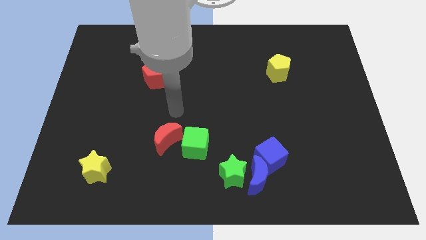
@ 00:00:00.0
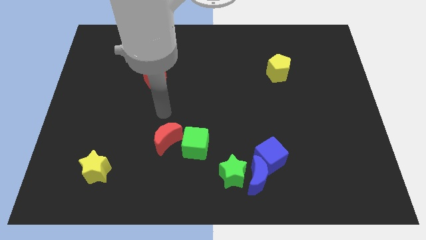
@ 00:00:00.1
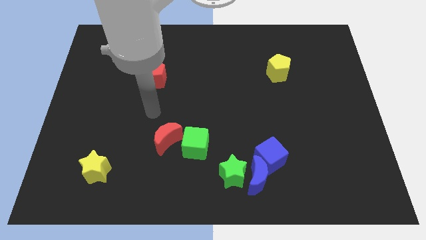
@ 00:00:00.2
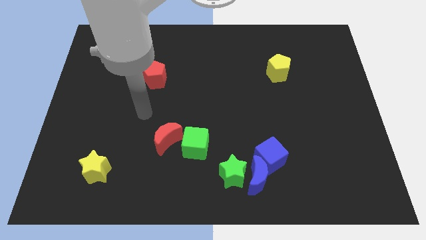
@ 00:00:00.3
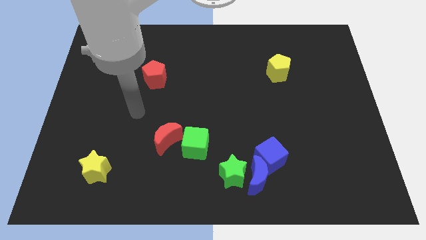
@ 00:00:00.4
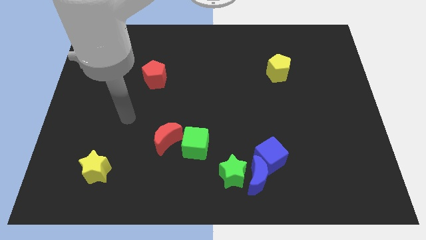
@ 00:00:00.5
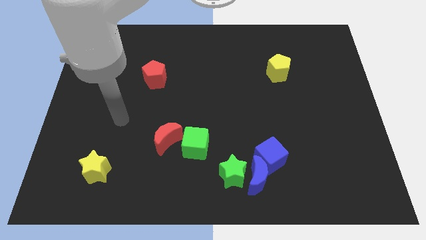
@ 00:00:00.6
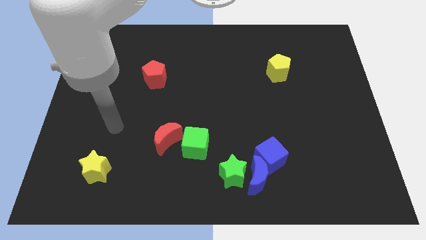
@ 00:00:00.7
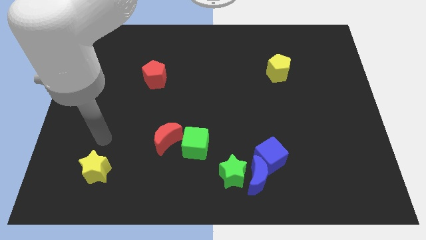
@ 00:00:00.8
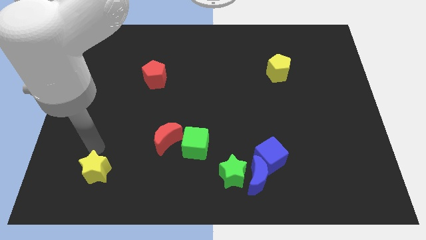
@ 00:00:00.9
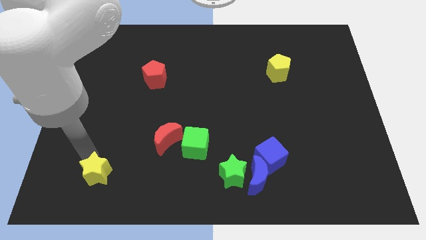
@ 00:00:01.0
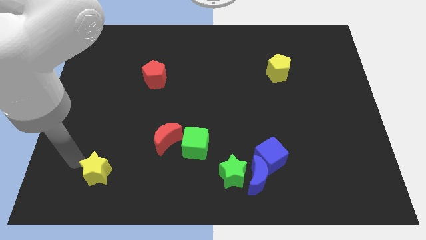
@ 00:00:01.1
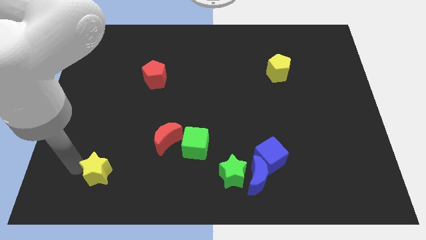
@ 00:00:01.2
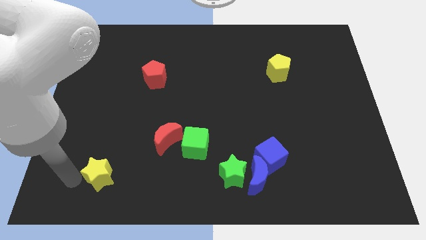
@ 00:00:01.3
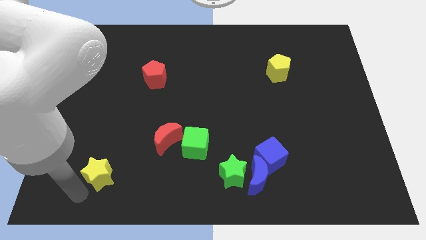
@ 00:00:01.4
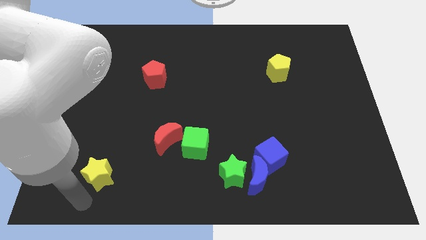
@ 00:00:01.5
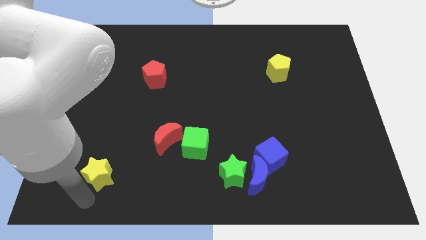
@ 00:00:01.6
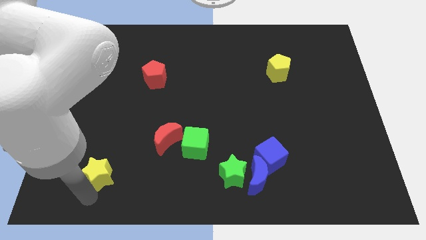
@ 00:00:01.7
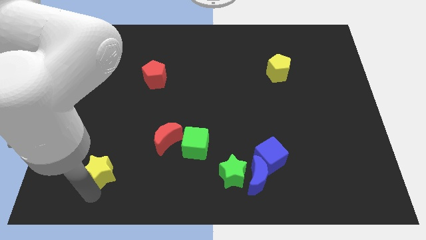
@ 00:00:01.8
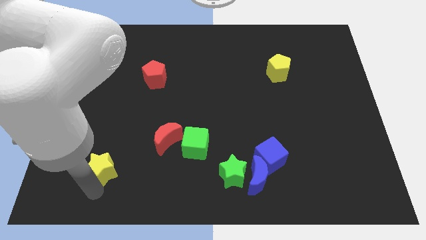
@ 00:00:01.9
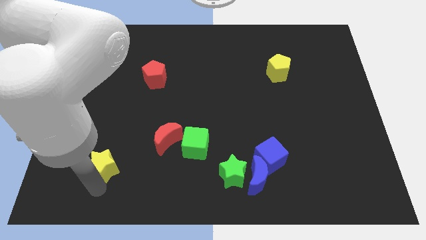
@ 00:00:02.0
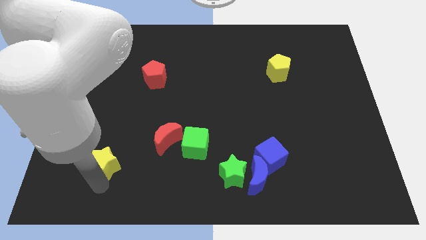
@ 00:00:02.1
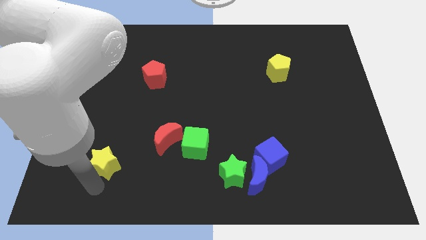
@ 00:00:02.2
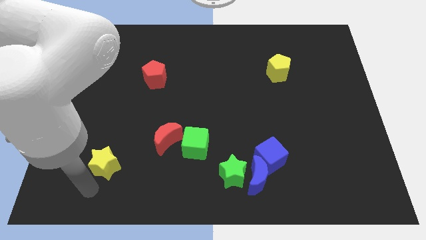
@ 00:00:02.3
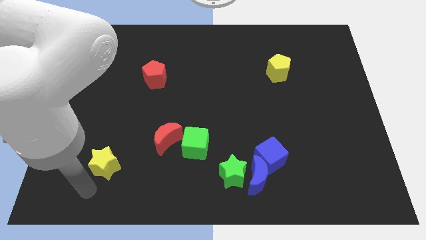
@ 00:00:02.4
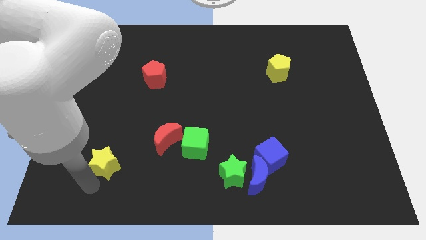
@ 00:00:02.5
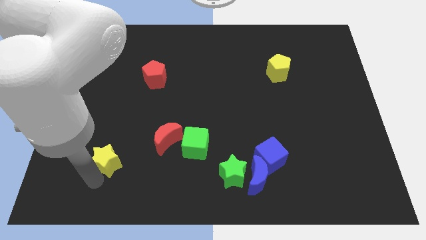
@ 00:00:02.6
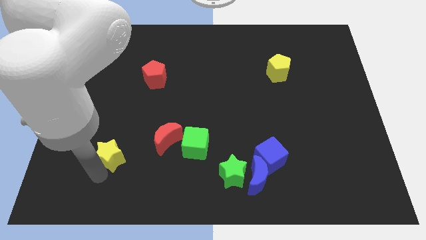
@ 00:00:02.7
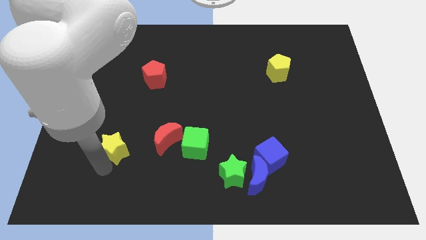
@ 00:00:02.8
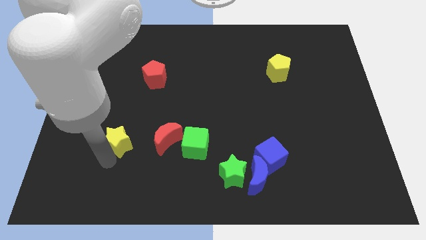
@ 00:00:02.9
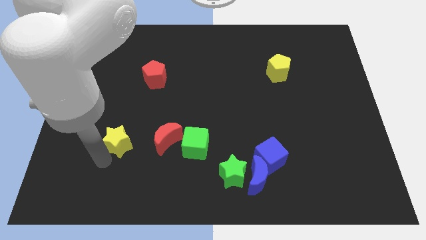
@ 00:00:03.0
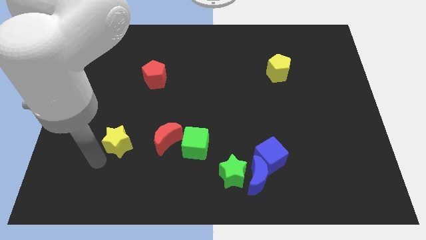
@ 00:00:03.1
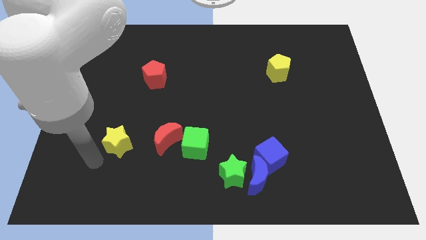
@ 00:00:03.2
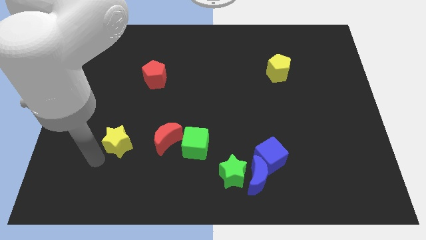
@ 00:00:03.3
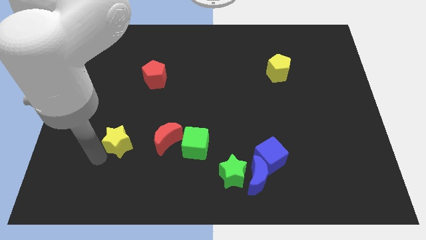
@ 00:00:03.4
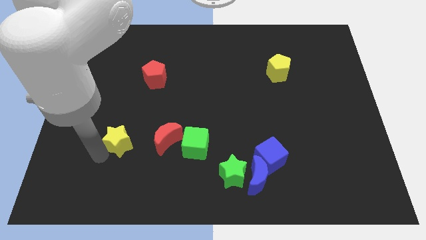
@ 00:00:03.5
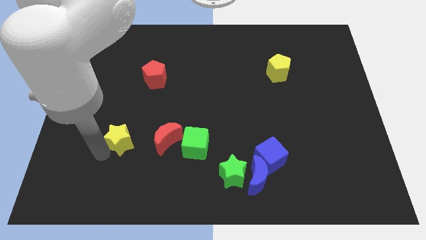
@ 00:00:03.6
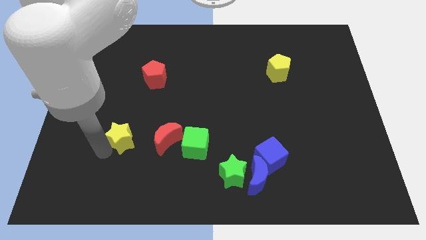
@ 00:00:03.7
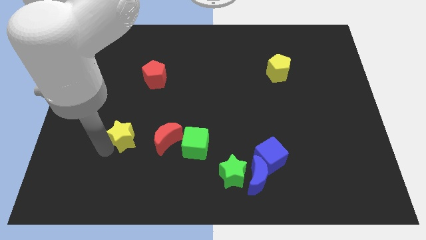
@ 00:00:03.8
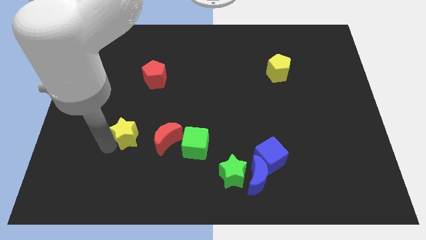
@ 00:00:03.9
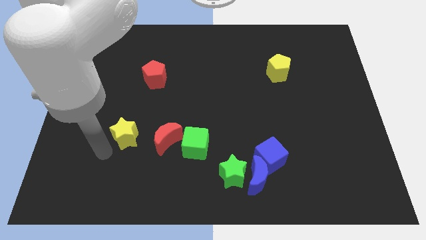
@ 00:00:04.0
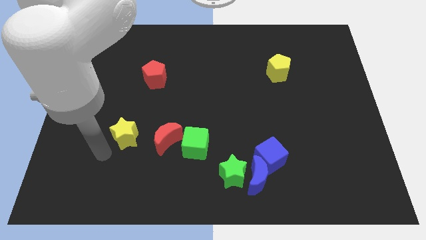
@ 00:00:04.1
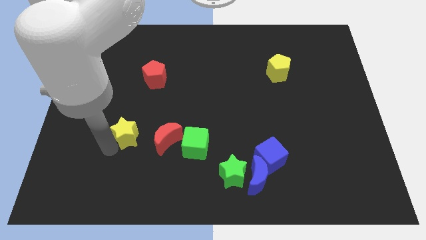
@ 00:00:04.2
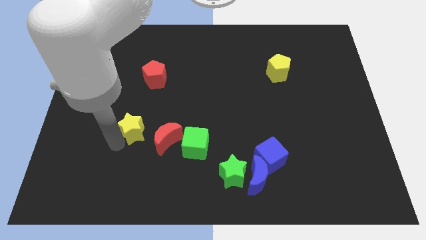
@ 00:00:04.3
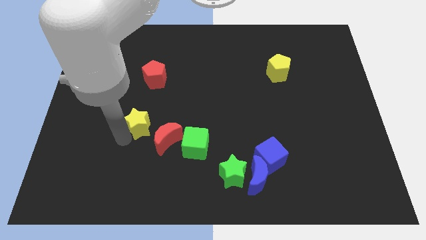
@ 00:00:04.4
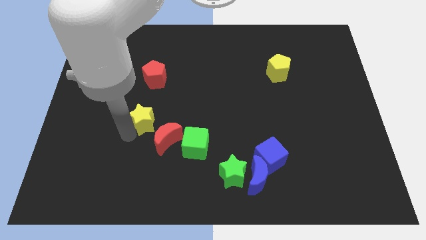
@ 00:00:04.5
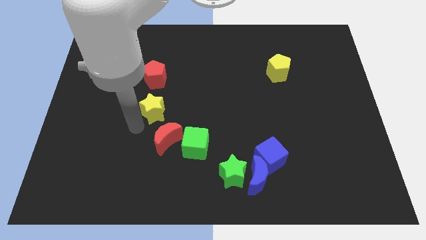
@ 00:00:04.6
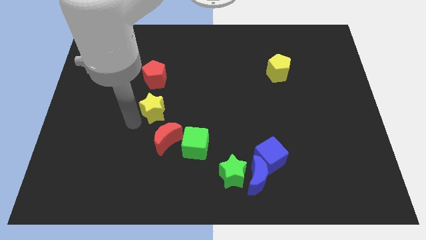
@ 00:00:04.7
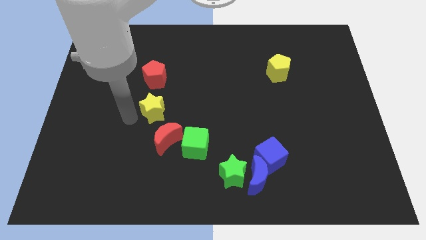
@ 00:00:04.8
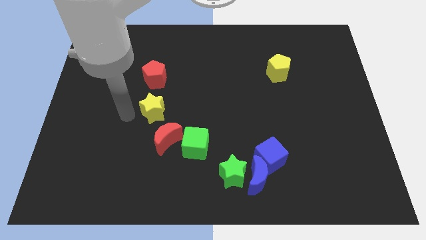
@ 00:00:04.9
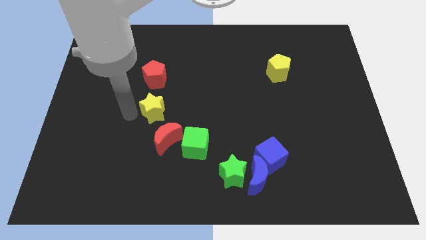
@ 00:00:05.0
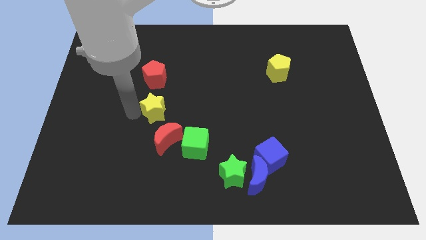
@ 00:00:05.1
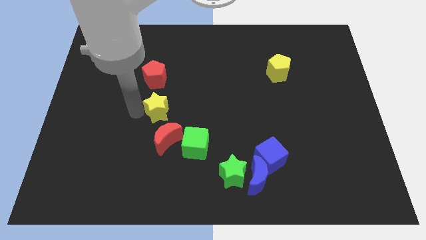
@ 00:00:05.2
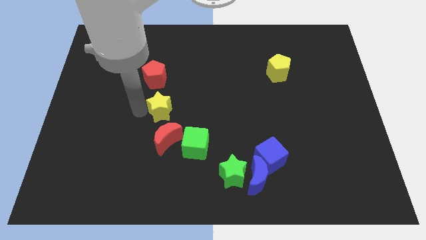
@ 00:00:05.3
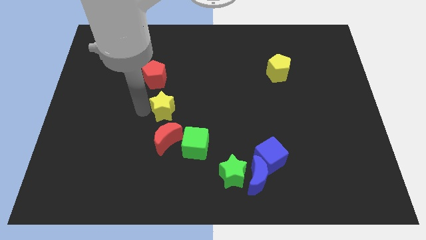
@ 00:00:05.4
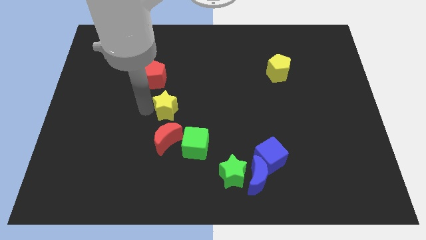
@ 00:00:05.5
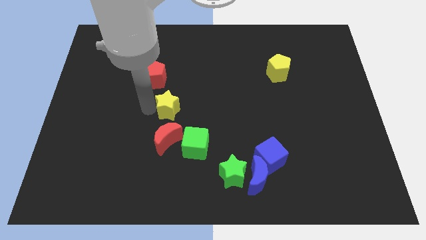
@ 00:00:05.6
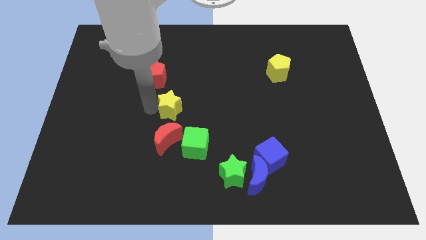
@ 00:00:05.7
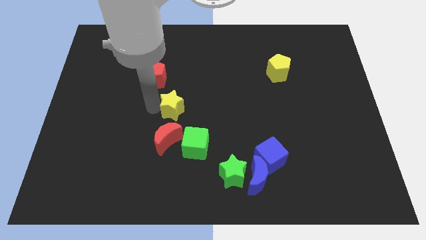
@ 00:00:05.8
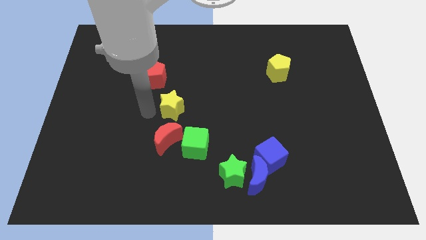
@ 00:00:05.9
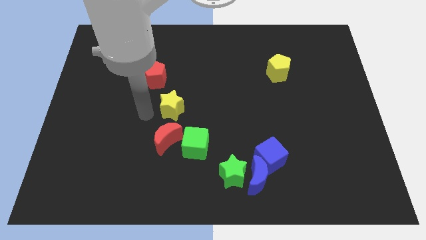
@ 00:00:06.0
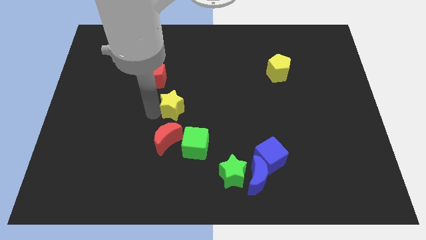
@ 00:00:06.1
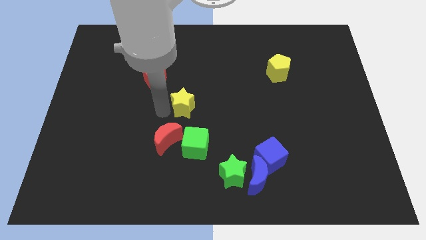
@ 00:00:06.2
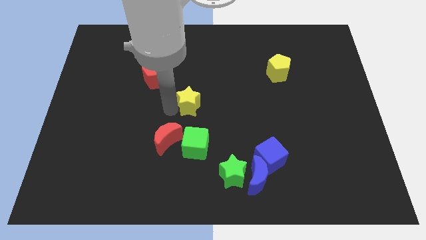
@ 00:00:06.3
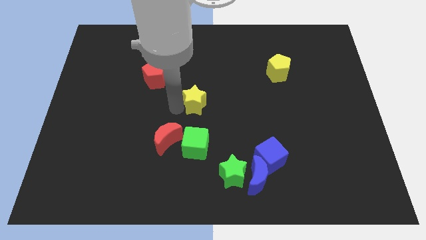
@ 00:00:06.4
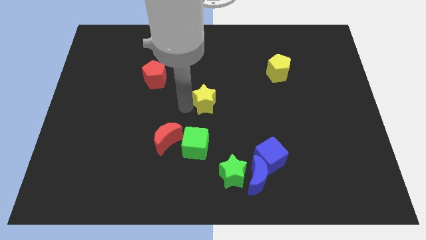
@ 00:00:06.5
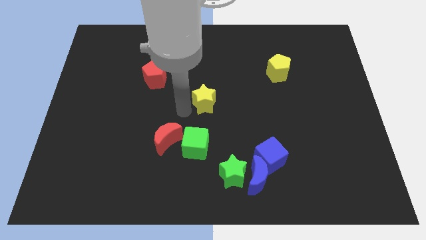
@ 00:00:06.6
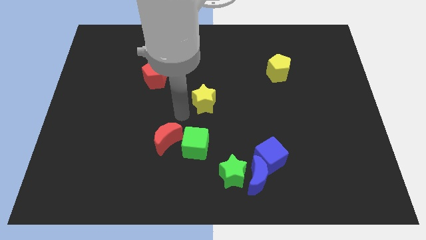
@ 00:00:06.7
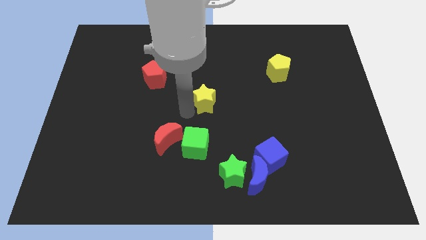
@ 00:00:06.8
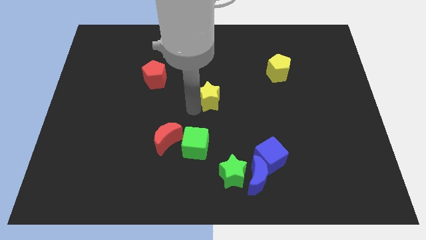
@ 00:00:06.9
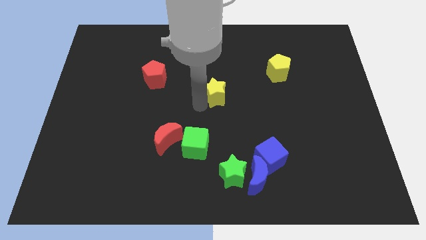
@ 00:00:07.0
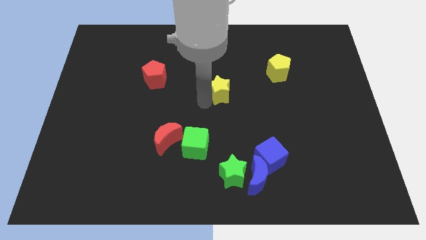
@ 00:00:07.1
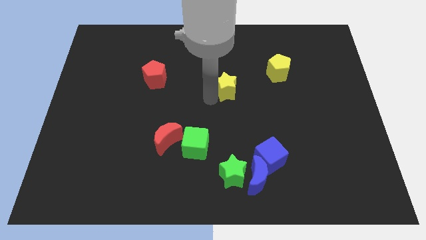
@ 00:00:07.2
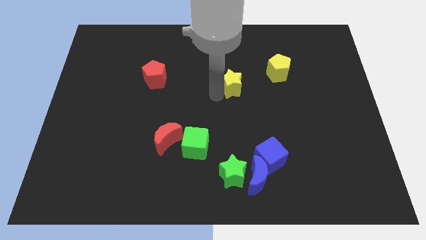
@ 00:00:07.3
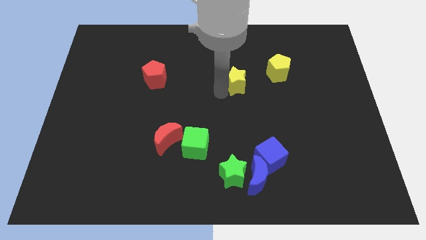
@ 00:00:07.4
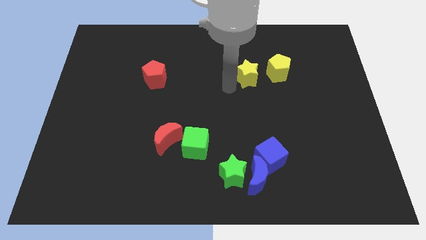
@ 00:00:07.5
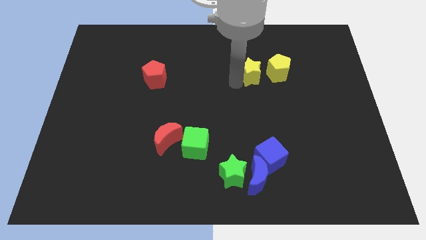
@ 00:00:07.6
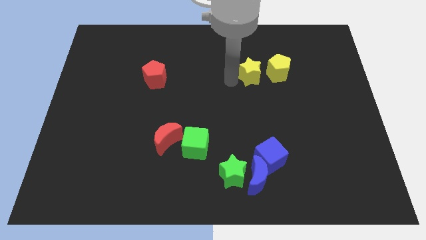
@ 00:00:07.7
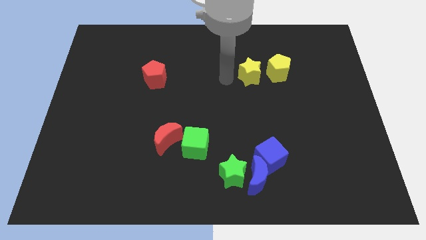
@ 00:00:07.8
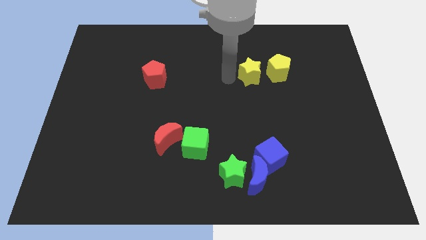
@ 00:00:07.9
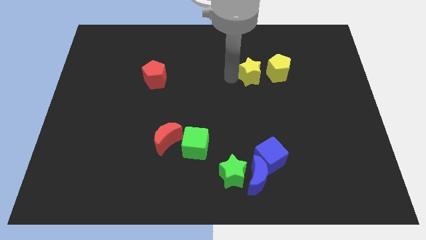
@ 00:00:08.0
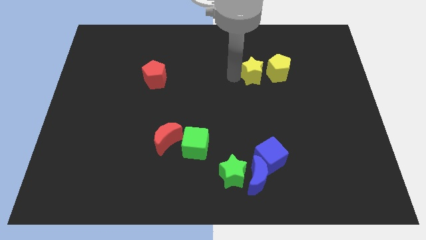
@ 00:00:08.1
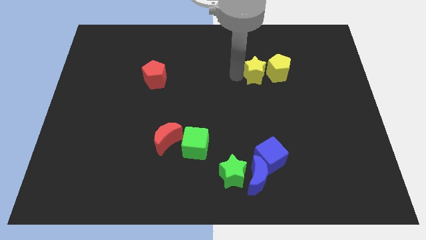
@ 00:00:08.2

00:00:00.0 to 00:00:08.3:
slide the yellow star towards the yellow pentagon
